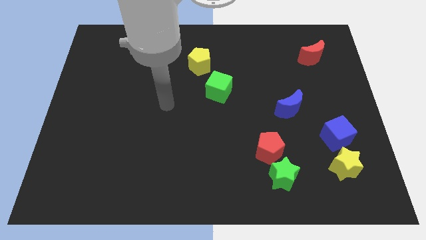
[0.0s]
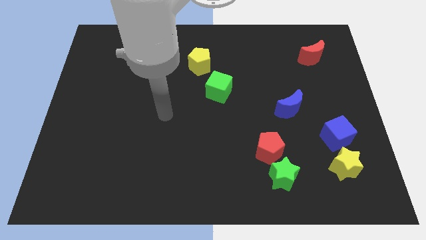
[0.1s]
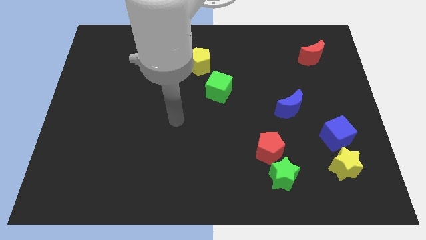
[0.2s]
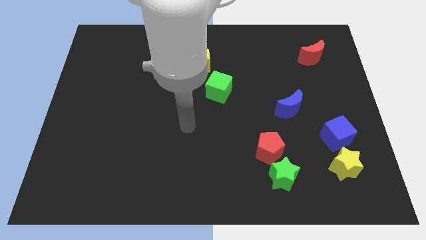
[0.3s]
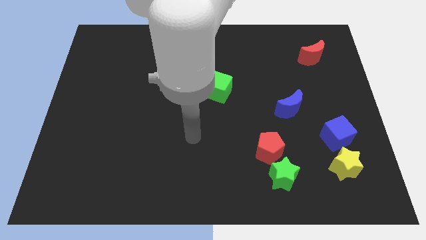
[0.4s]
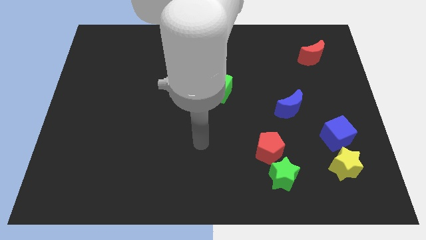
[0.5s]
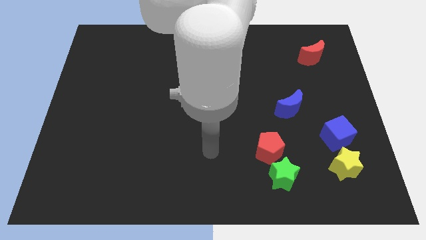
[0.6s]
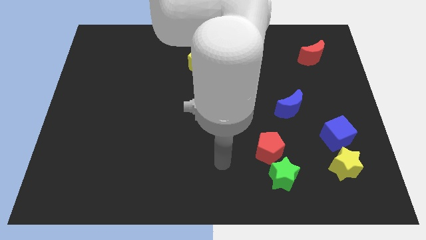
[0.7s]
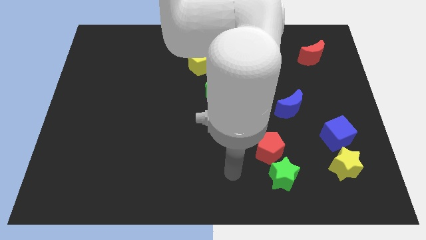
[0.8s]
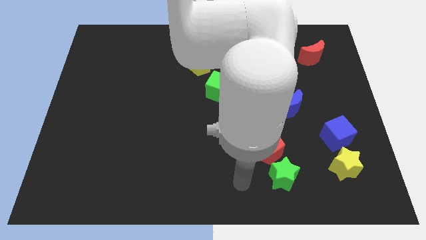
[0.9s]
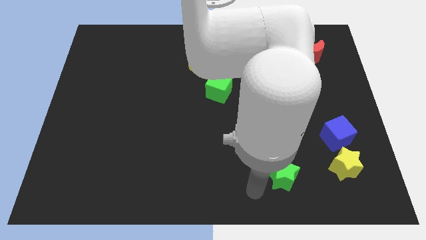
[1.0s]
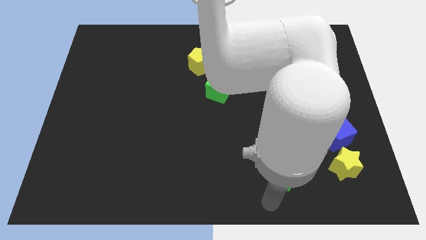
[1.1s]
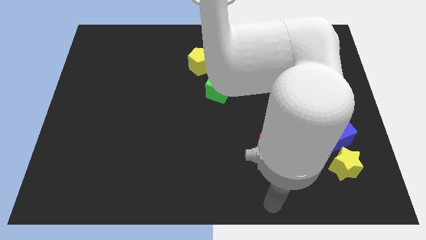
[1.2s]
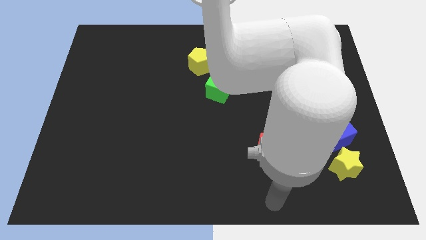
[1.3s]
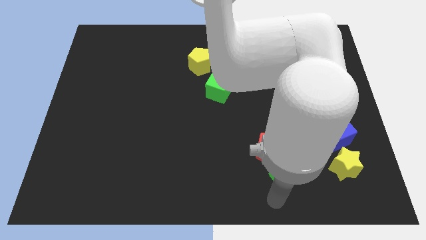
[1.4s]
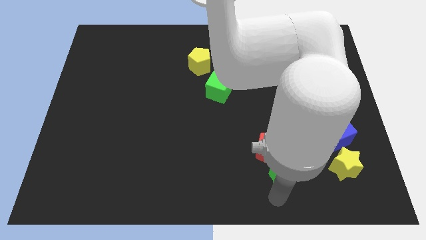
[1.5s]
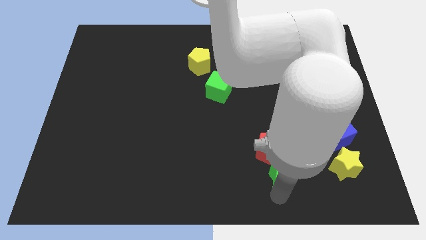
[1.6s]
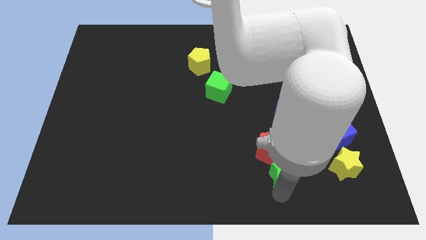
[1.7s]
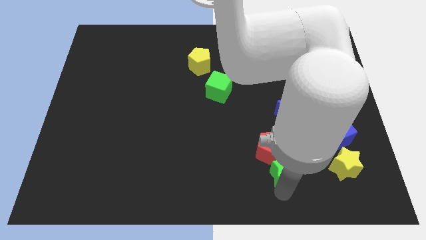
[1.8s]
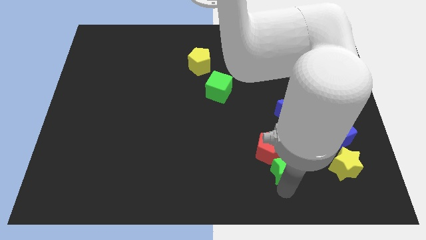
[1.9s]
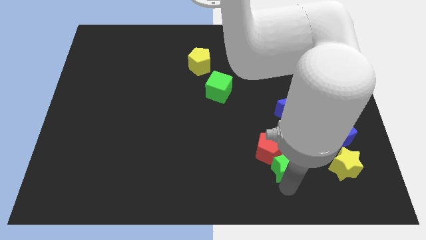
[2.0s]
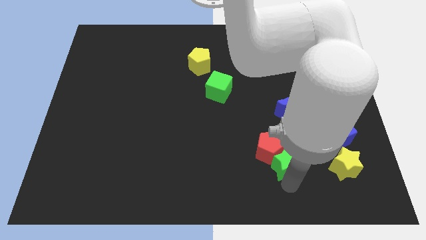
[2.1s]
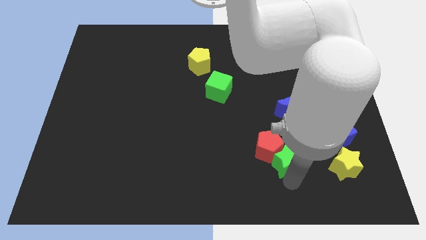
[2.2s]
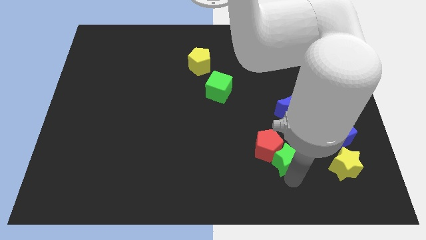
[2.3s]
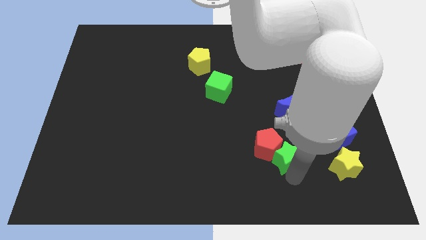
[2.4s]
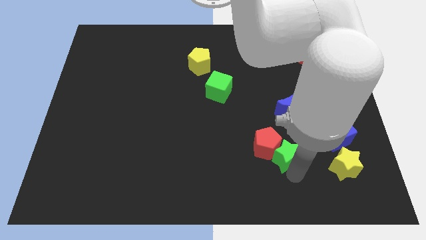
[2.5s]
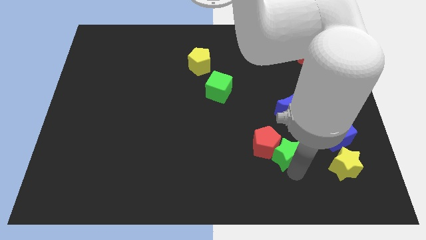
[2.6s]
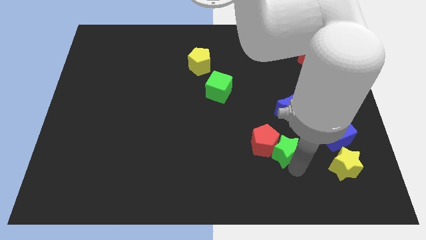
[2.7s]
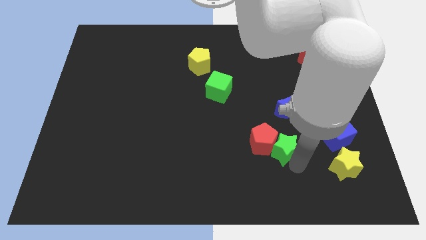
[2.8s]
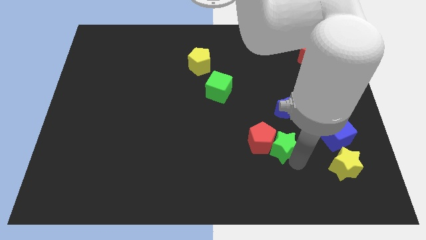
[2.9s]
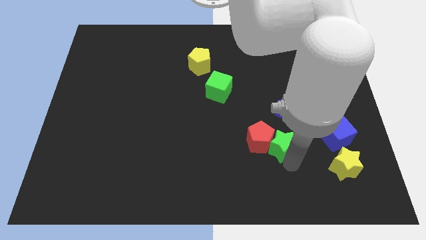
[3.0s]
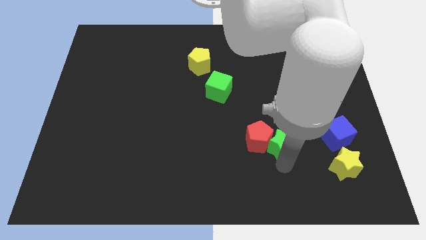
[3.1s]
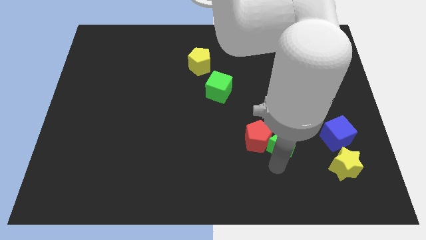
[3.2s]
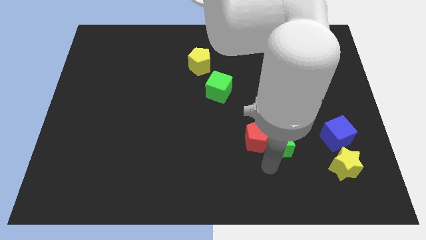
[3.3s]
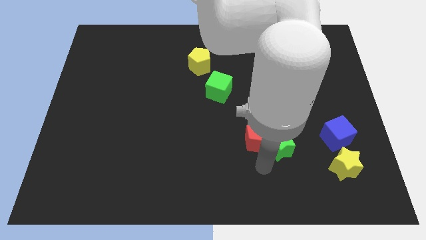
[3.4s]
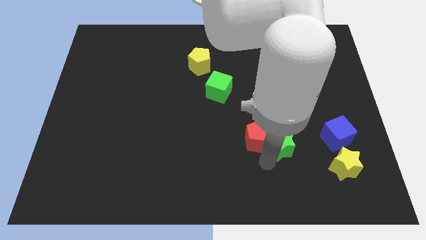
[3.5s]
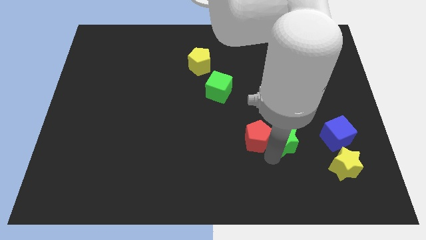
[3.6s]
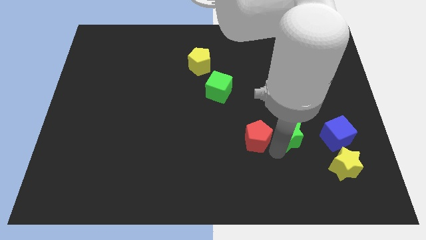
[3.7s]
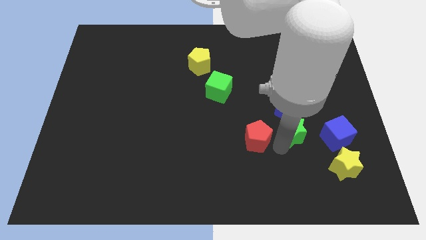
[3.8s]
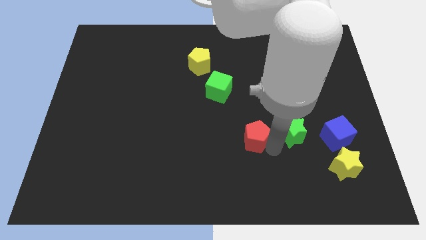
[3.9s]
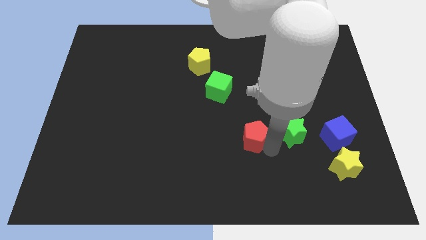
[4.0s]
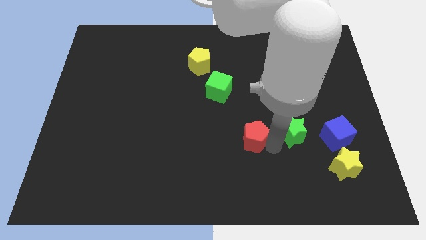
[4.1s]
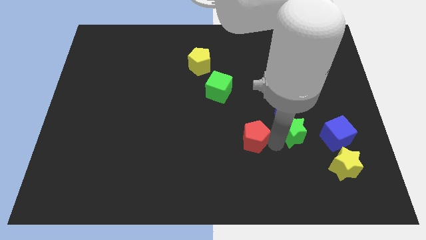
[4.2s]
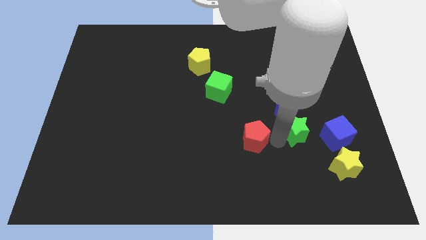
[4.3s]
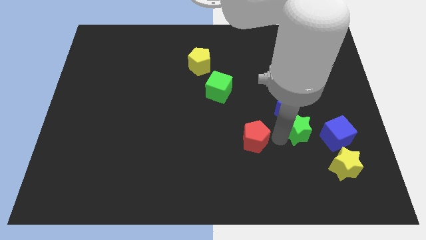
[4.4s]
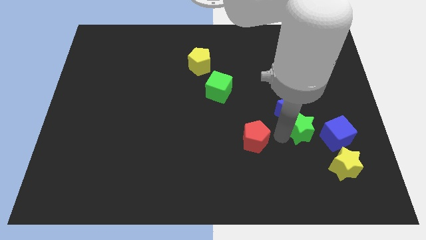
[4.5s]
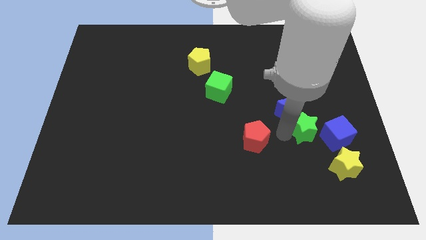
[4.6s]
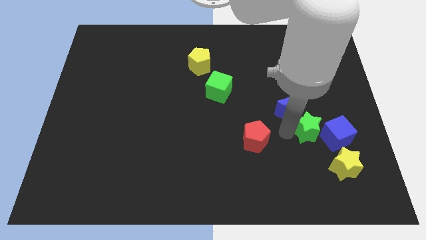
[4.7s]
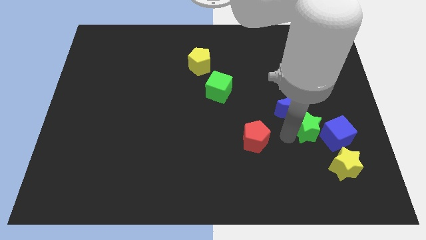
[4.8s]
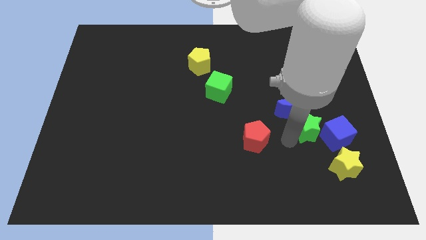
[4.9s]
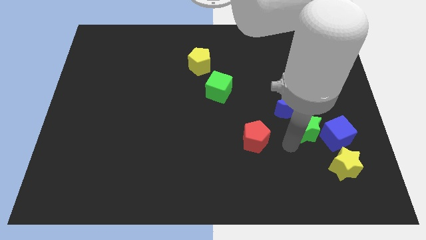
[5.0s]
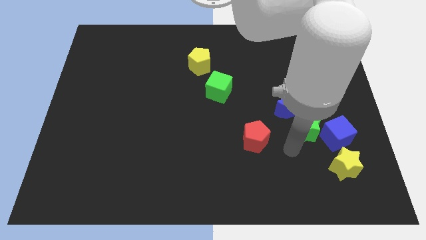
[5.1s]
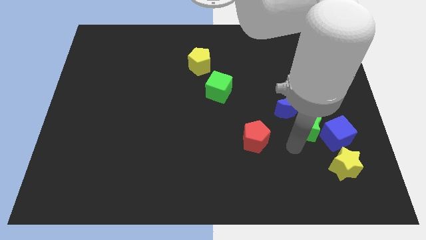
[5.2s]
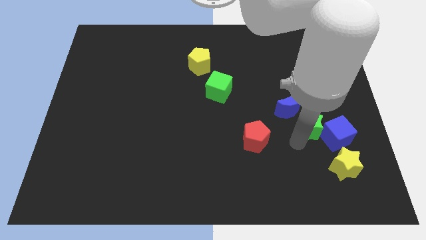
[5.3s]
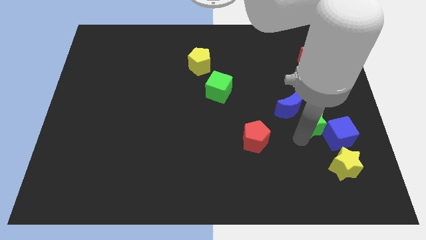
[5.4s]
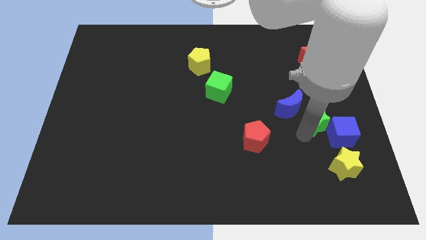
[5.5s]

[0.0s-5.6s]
move the green star just right of the blue moon

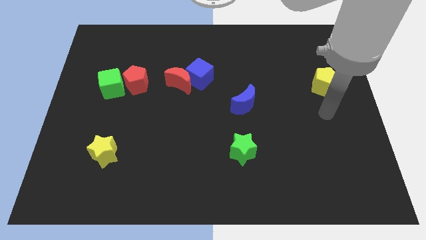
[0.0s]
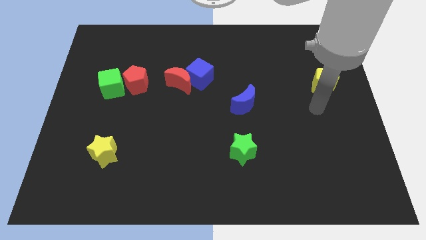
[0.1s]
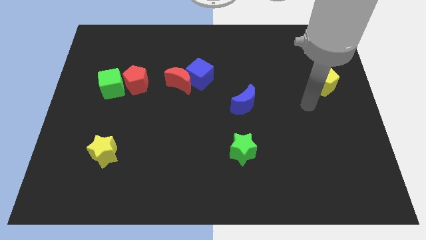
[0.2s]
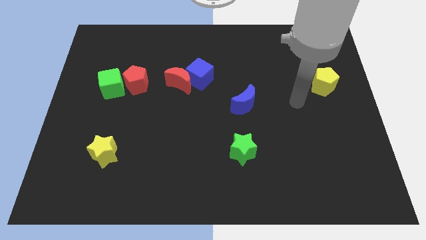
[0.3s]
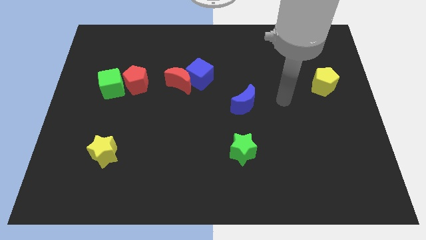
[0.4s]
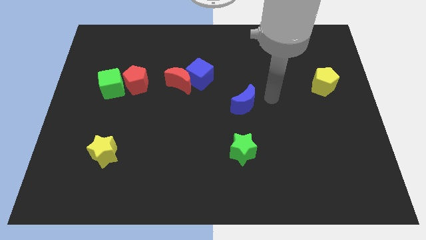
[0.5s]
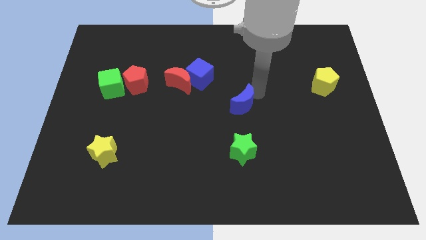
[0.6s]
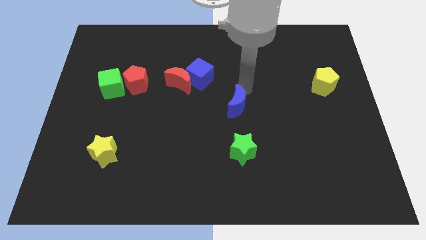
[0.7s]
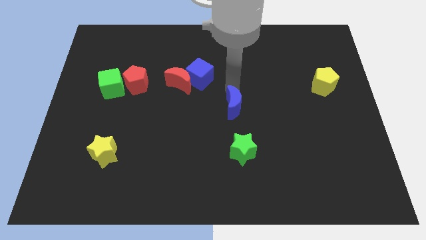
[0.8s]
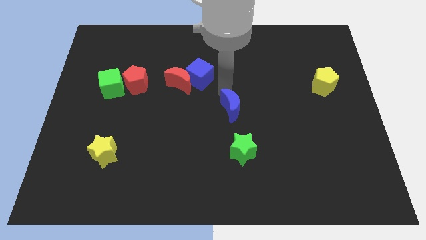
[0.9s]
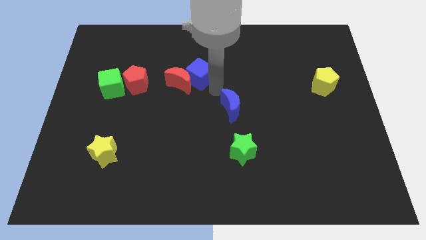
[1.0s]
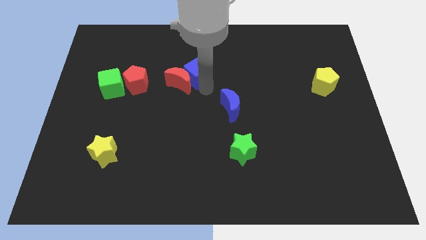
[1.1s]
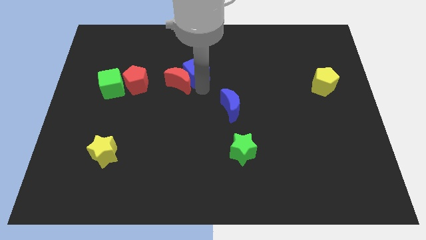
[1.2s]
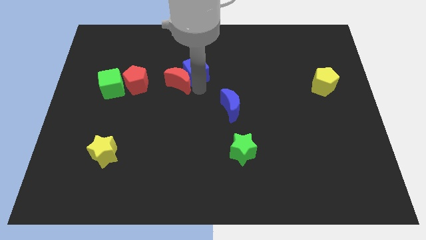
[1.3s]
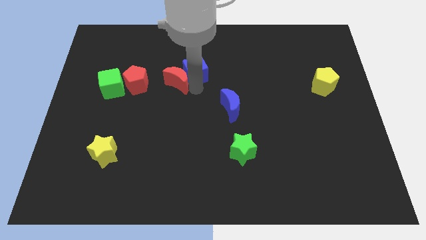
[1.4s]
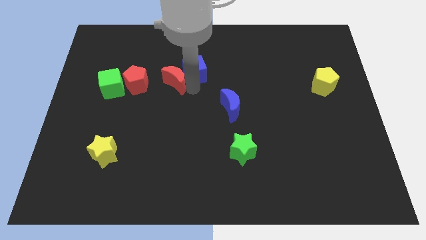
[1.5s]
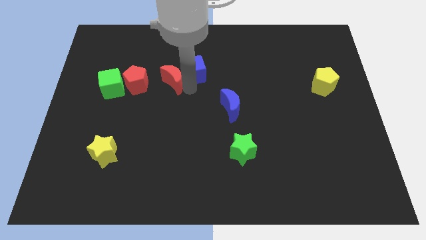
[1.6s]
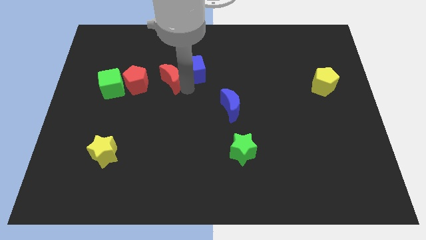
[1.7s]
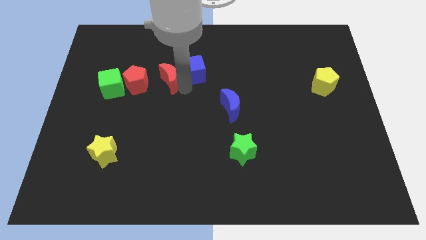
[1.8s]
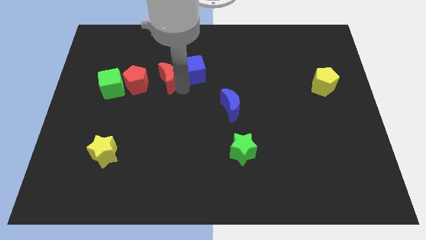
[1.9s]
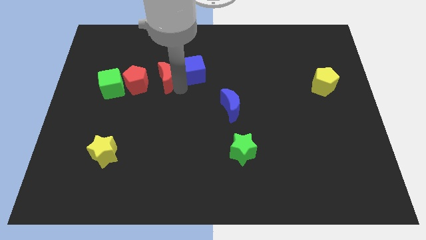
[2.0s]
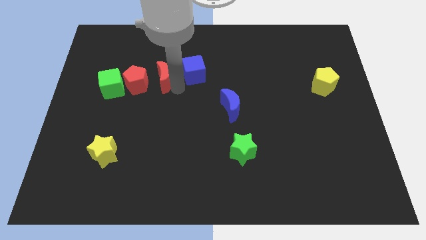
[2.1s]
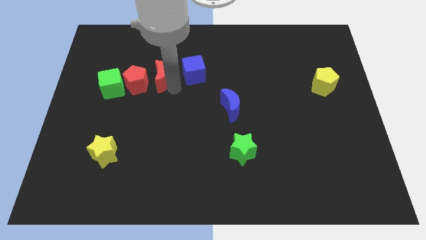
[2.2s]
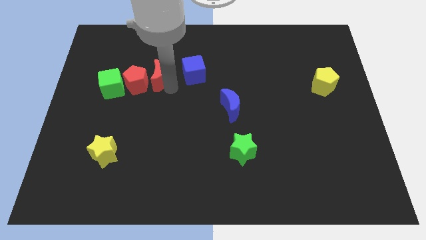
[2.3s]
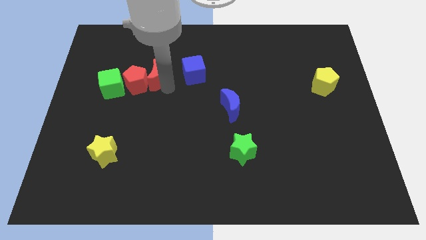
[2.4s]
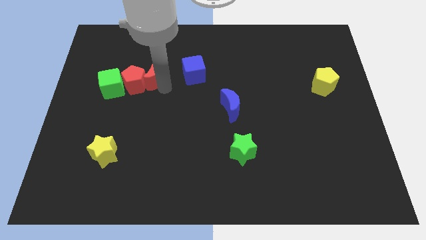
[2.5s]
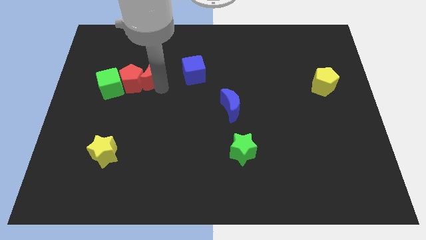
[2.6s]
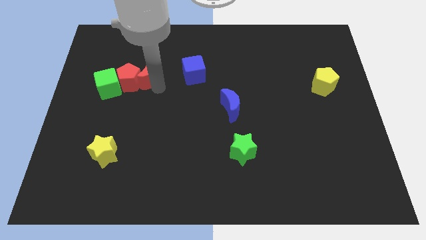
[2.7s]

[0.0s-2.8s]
slide the red moon to the top right of the green cube
